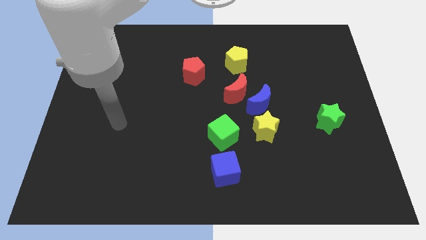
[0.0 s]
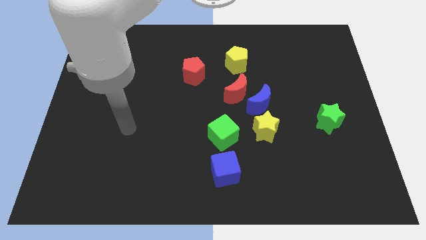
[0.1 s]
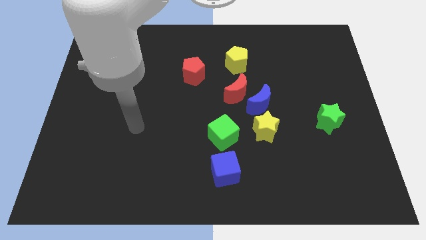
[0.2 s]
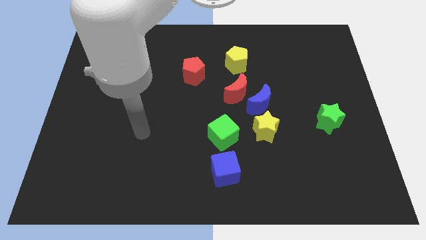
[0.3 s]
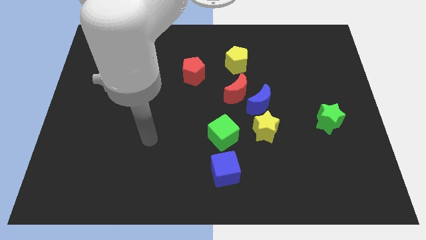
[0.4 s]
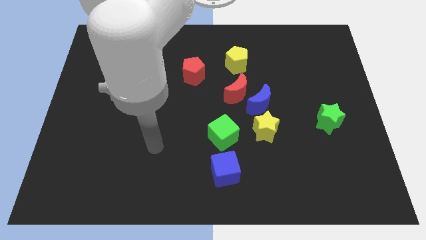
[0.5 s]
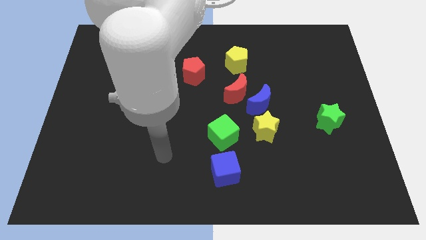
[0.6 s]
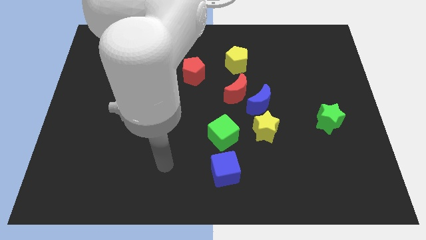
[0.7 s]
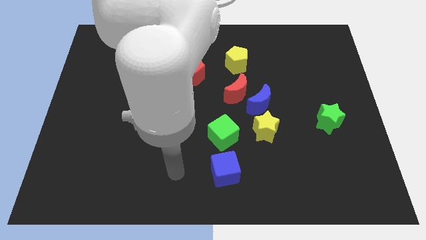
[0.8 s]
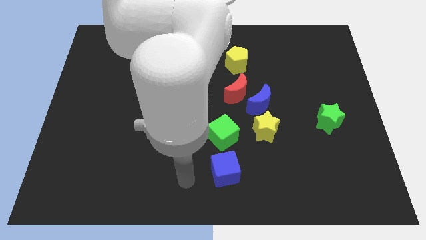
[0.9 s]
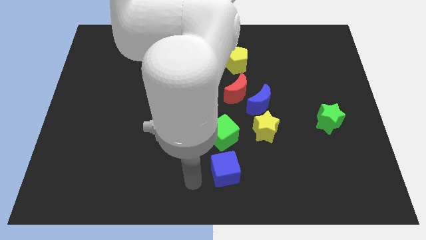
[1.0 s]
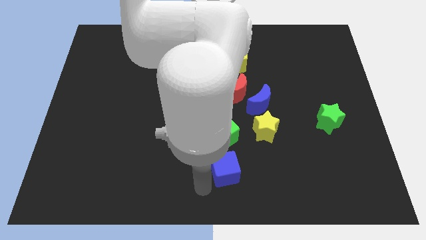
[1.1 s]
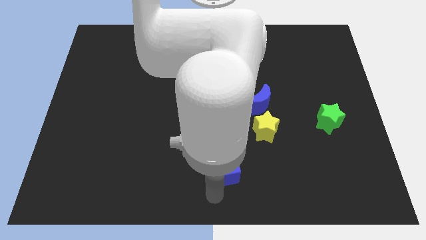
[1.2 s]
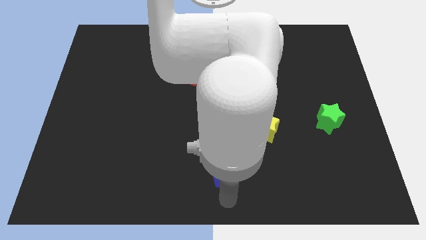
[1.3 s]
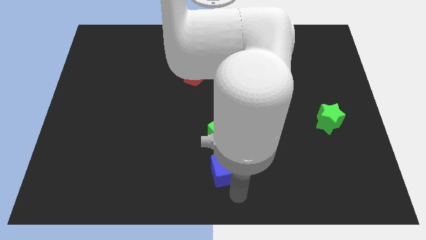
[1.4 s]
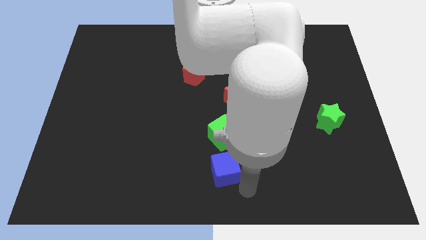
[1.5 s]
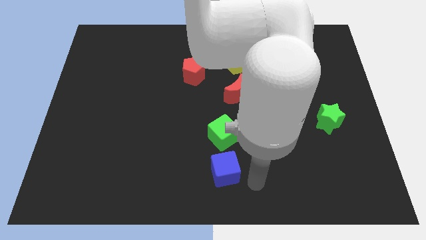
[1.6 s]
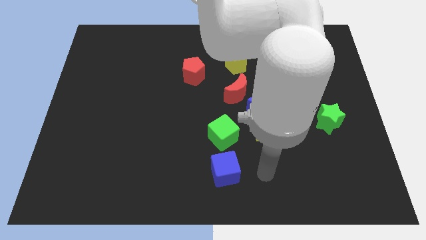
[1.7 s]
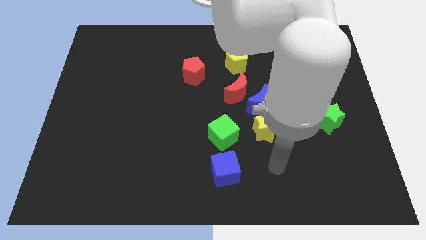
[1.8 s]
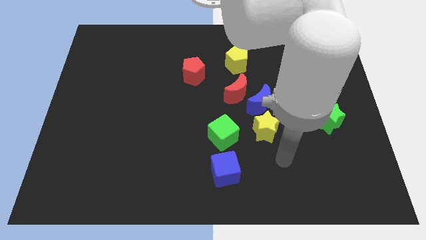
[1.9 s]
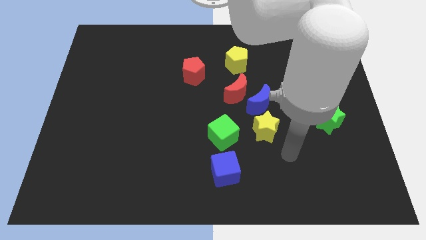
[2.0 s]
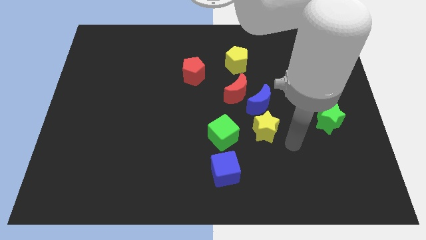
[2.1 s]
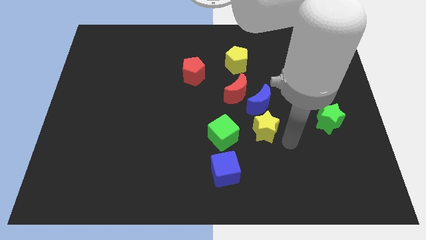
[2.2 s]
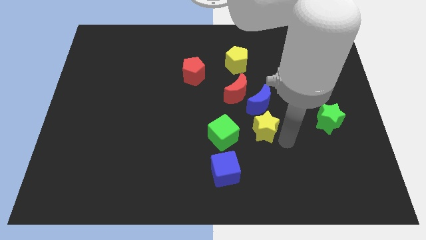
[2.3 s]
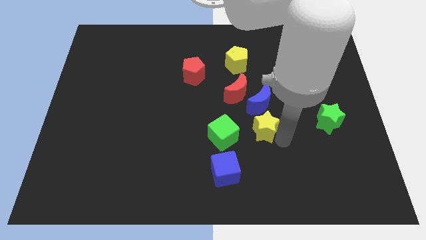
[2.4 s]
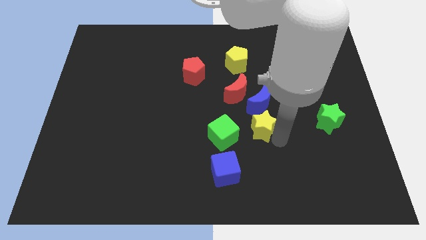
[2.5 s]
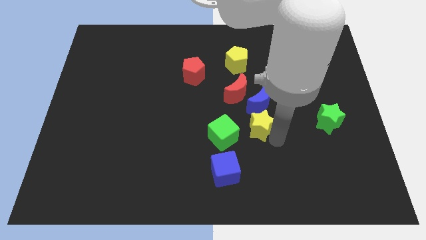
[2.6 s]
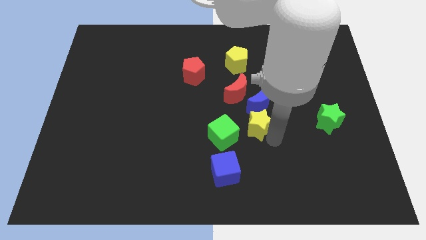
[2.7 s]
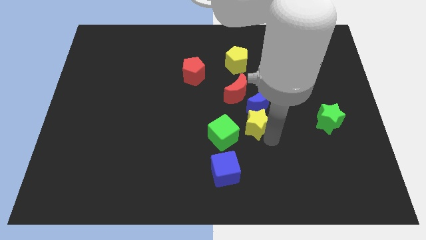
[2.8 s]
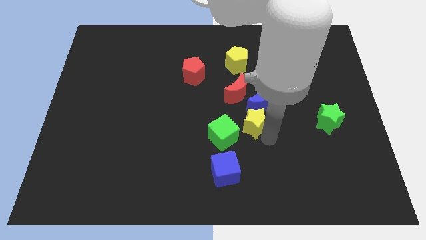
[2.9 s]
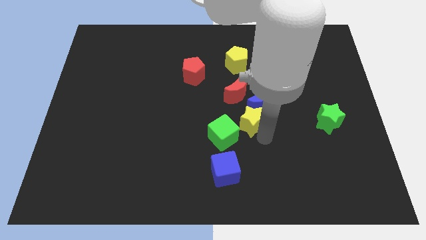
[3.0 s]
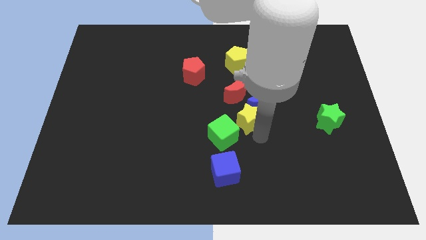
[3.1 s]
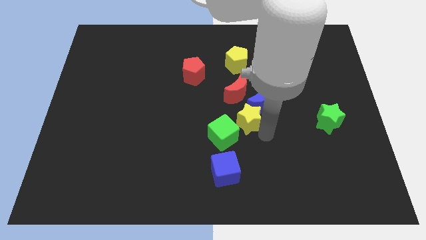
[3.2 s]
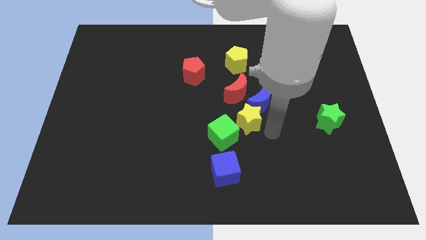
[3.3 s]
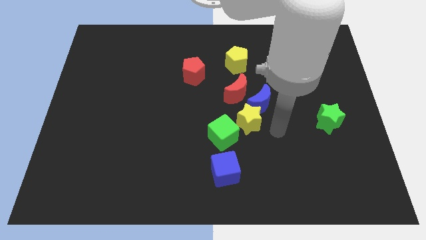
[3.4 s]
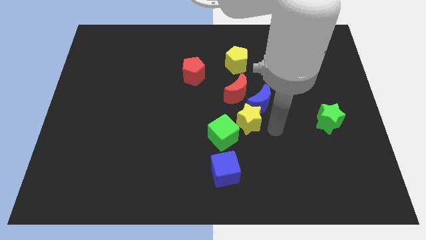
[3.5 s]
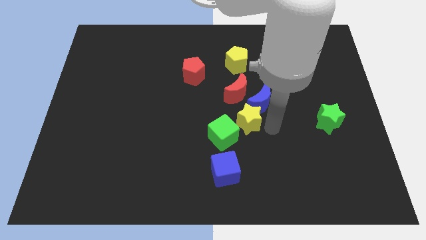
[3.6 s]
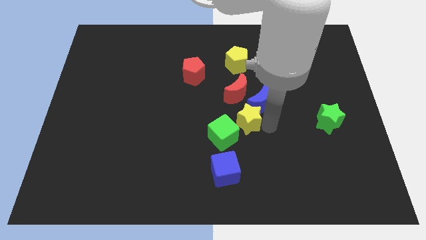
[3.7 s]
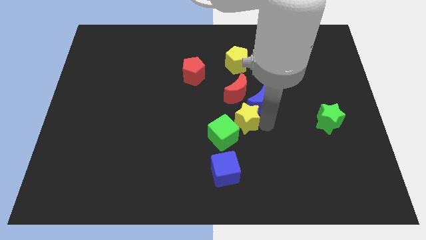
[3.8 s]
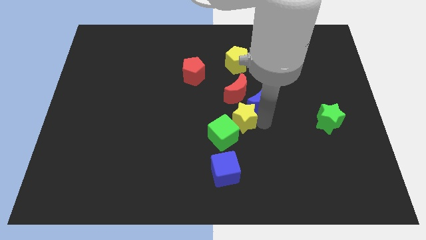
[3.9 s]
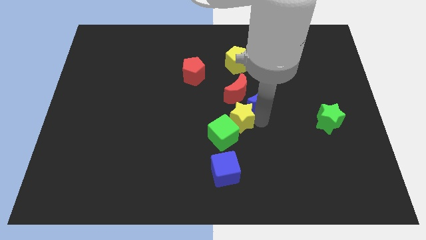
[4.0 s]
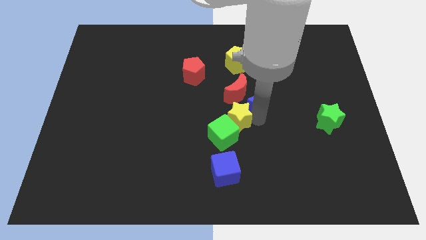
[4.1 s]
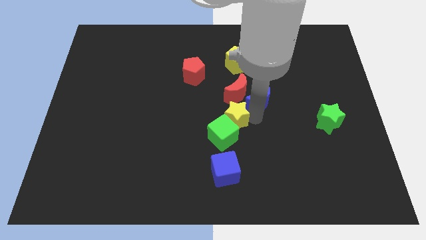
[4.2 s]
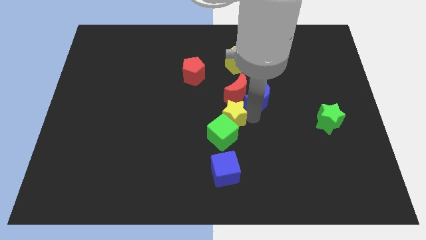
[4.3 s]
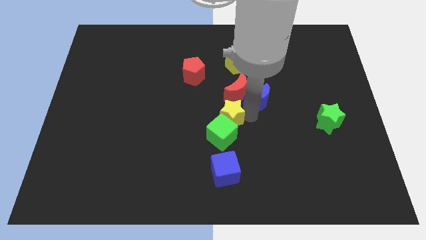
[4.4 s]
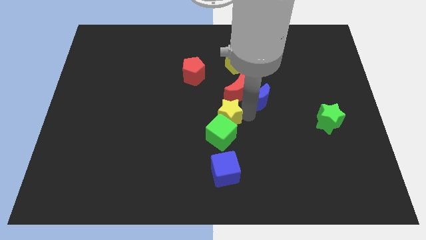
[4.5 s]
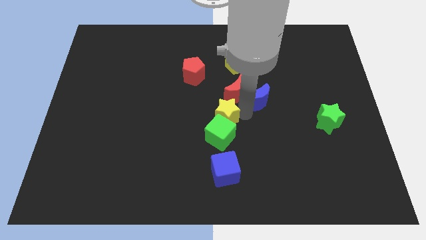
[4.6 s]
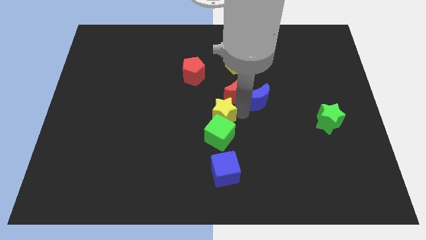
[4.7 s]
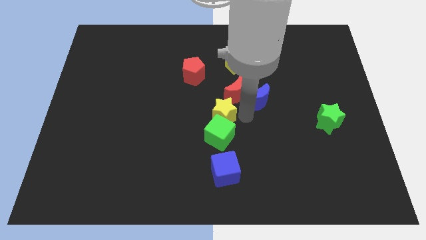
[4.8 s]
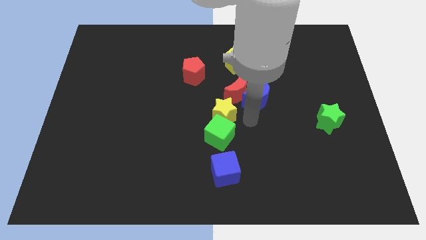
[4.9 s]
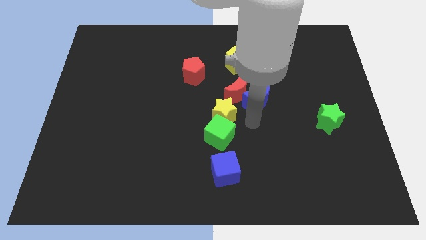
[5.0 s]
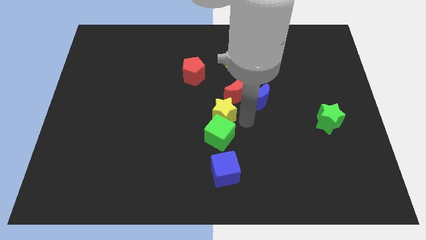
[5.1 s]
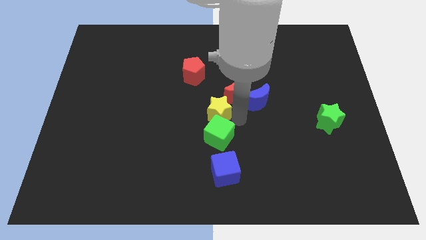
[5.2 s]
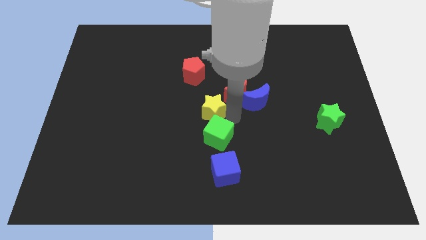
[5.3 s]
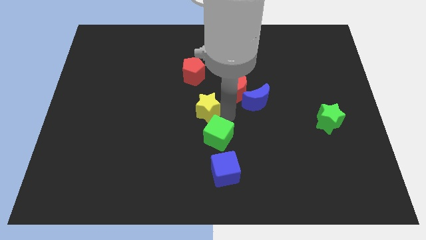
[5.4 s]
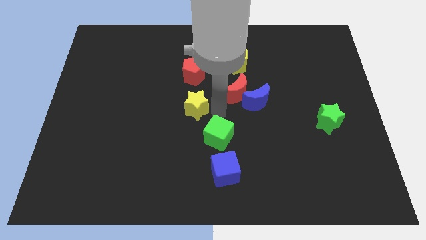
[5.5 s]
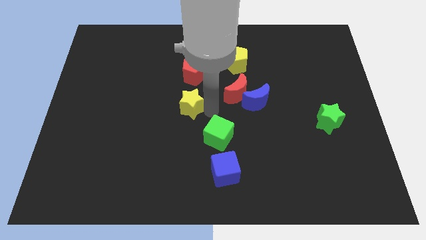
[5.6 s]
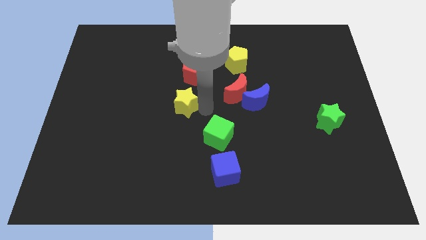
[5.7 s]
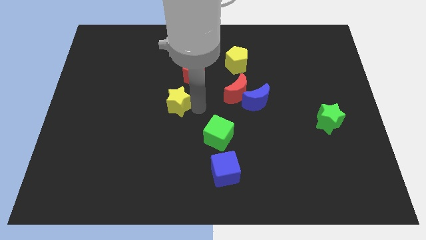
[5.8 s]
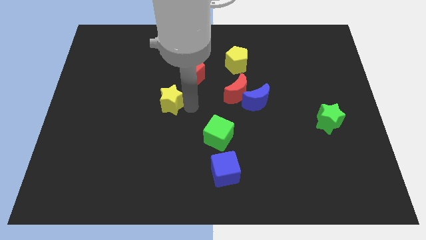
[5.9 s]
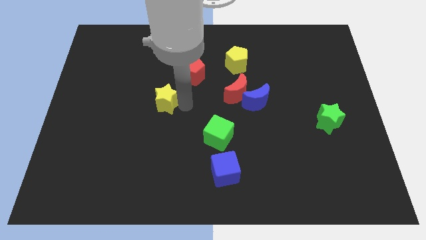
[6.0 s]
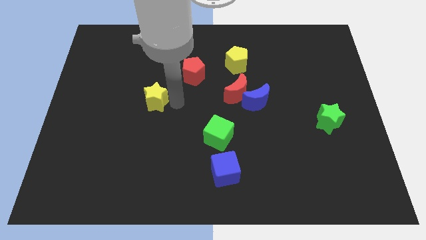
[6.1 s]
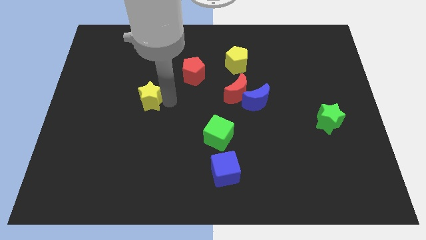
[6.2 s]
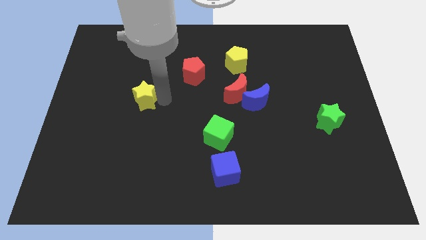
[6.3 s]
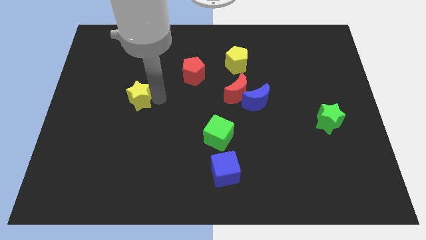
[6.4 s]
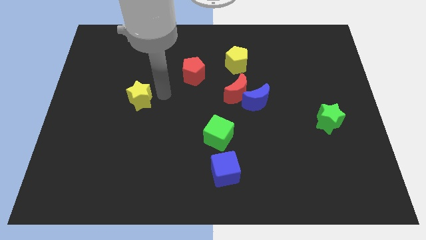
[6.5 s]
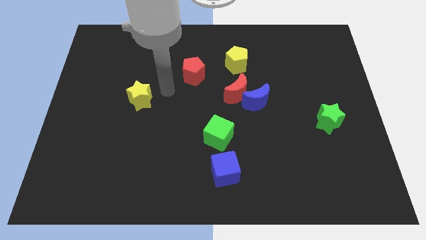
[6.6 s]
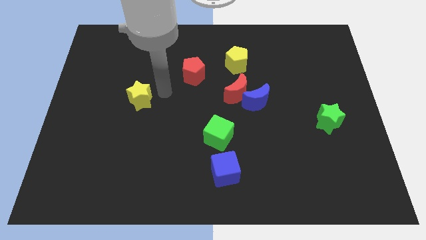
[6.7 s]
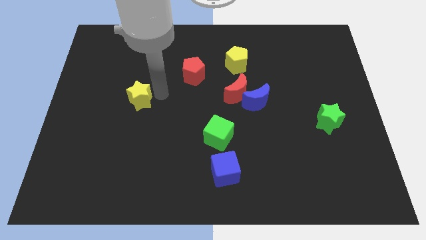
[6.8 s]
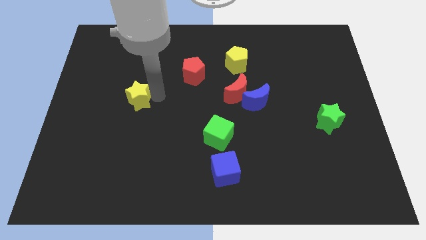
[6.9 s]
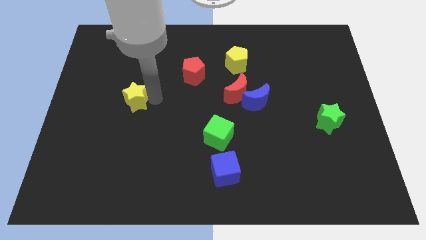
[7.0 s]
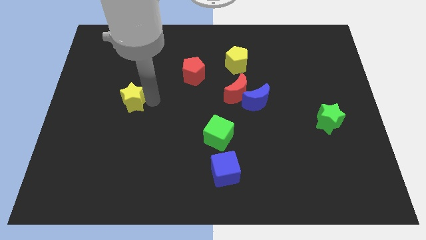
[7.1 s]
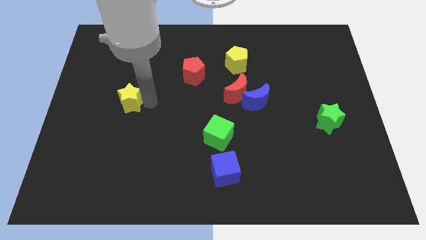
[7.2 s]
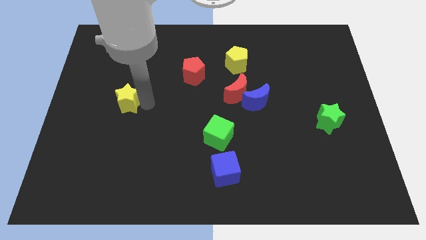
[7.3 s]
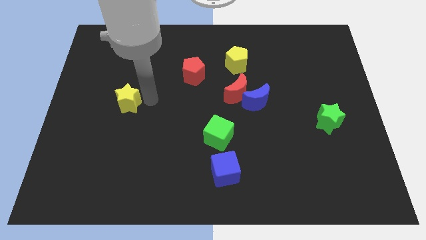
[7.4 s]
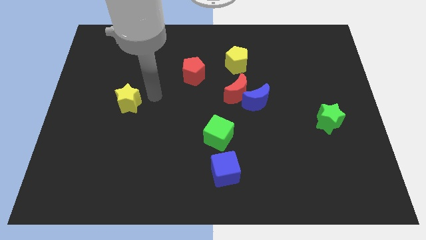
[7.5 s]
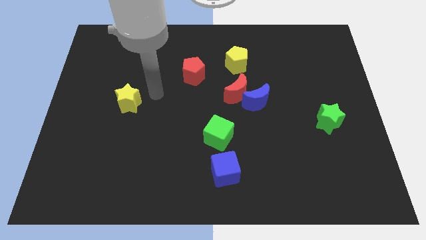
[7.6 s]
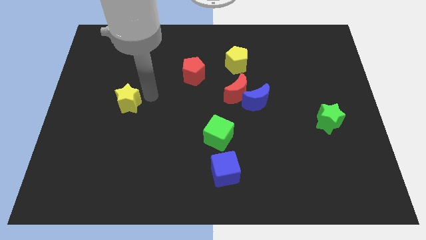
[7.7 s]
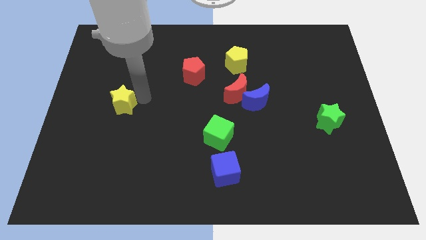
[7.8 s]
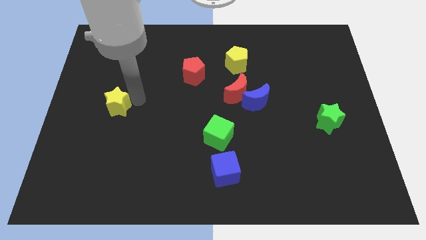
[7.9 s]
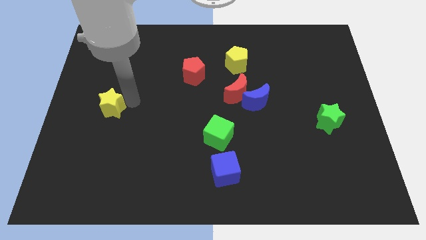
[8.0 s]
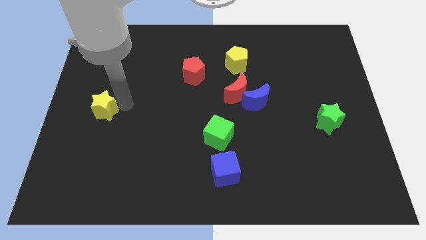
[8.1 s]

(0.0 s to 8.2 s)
push the yellow star to the left side
